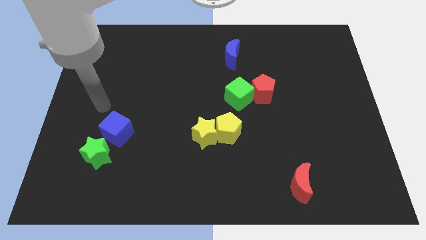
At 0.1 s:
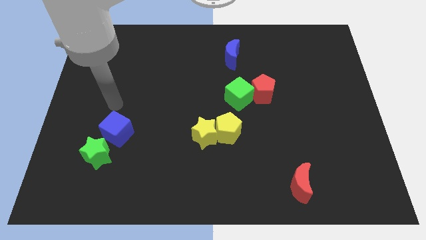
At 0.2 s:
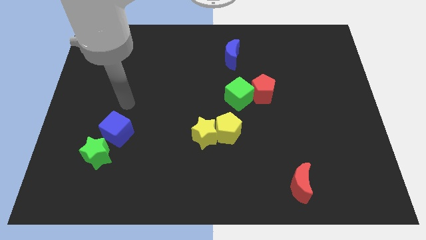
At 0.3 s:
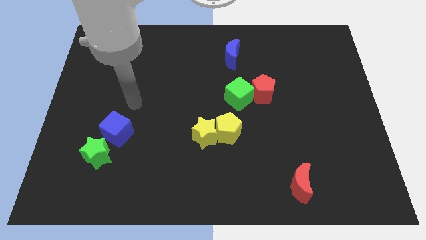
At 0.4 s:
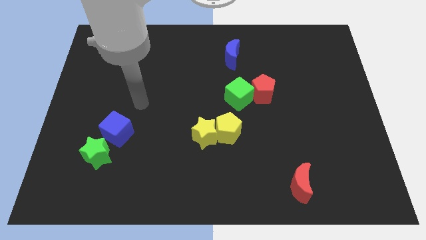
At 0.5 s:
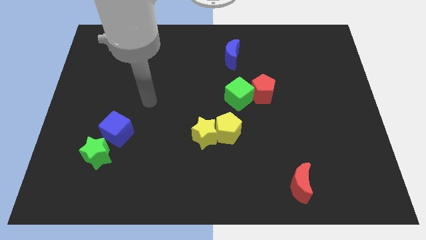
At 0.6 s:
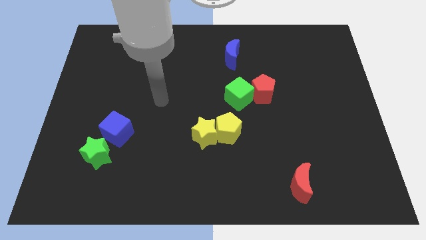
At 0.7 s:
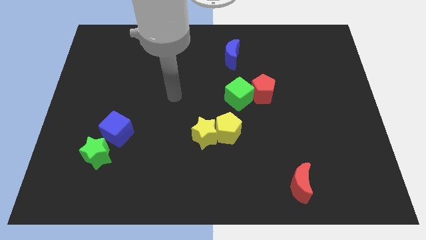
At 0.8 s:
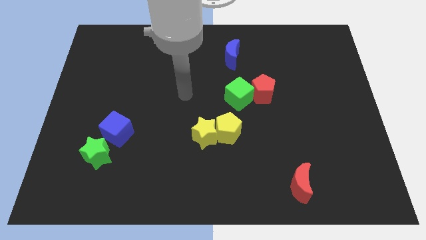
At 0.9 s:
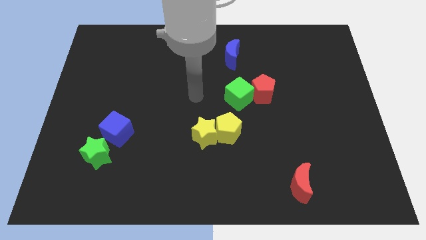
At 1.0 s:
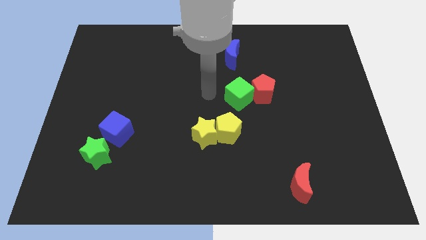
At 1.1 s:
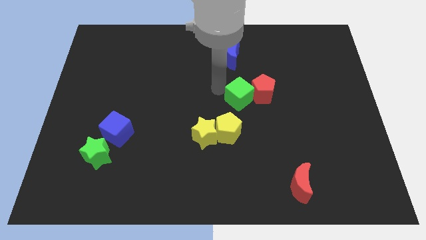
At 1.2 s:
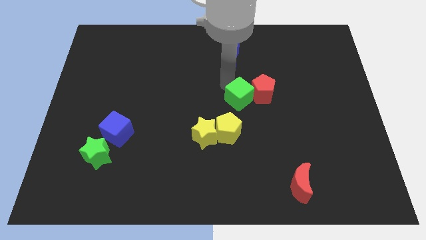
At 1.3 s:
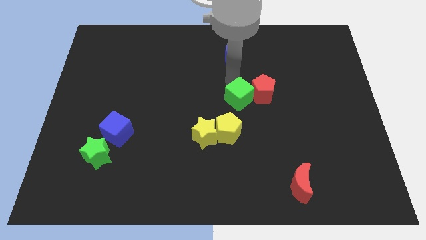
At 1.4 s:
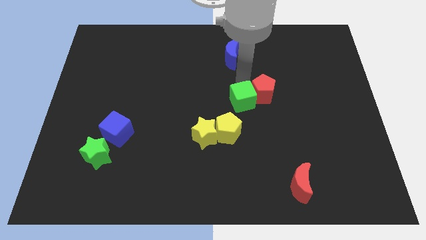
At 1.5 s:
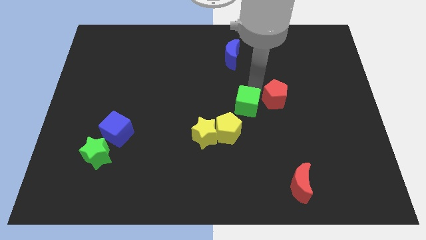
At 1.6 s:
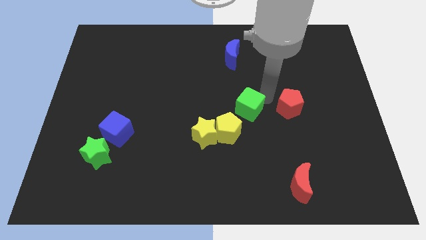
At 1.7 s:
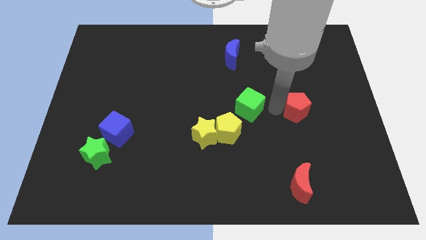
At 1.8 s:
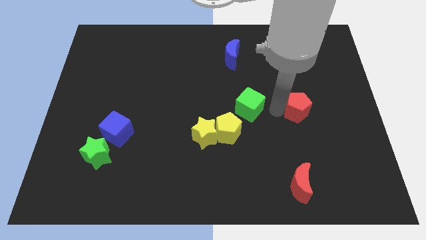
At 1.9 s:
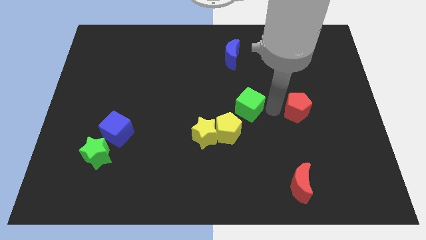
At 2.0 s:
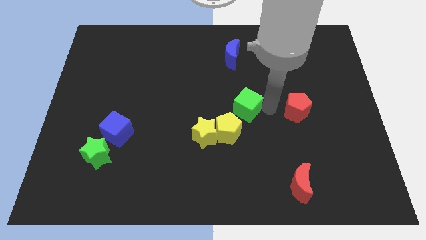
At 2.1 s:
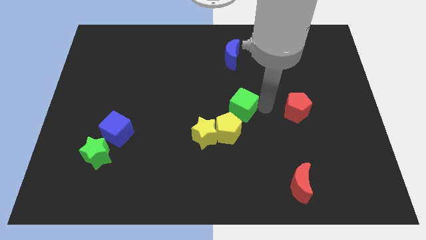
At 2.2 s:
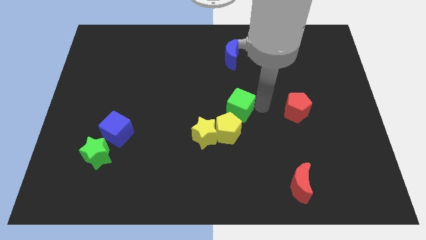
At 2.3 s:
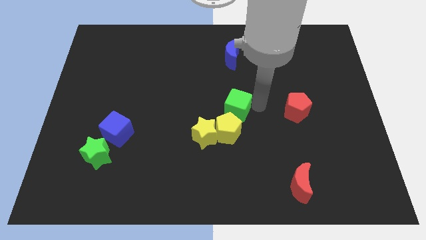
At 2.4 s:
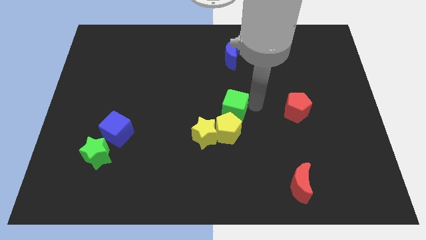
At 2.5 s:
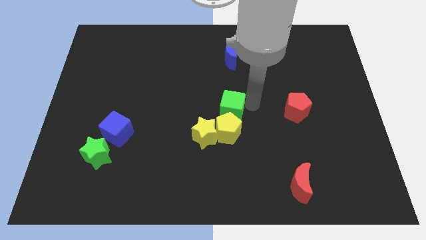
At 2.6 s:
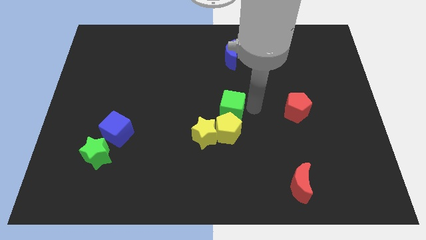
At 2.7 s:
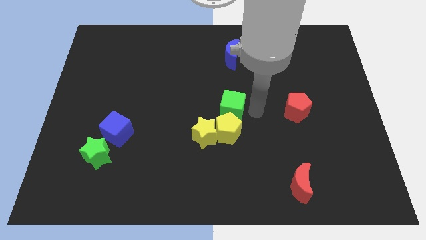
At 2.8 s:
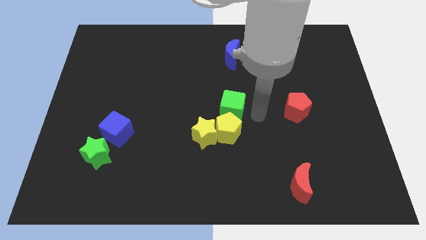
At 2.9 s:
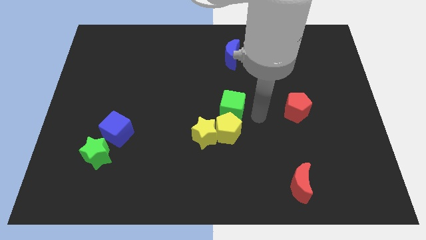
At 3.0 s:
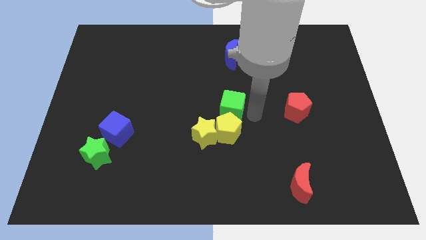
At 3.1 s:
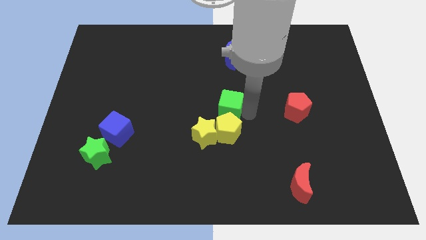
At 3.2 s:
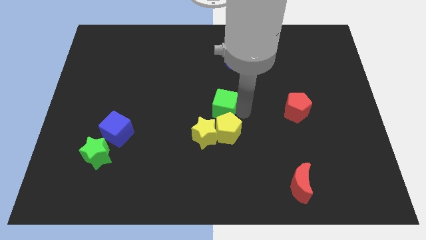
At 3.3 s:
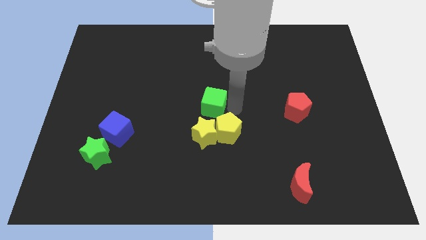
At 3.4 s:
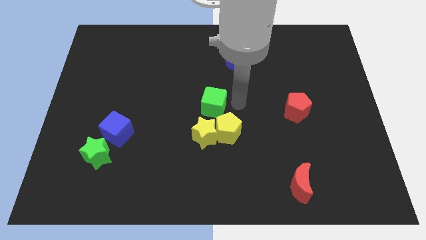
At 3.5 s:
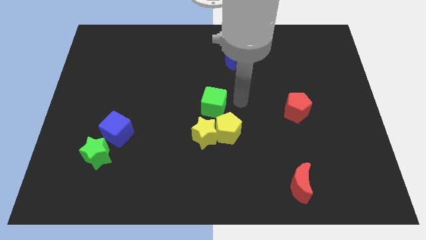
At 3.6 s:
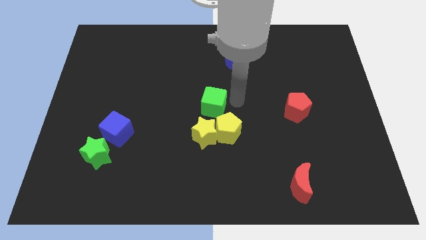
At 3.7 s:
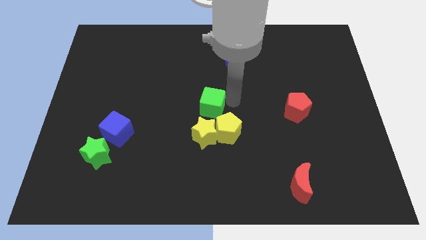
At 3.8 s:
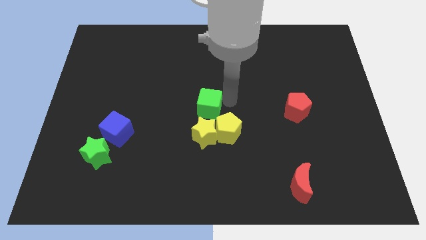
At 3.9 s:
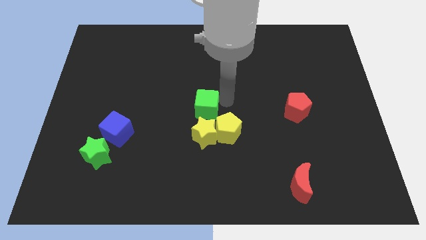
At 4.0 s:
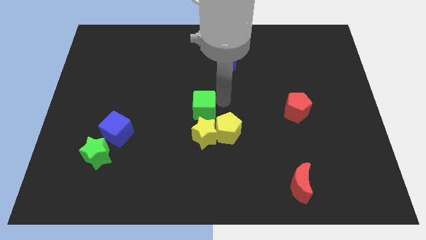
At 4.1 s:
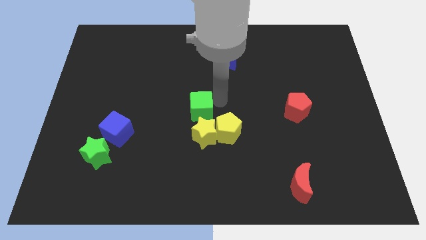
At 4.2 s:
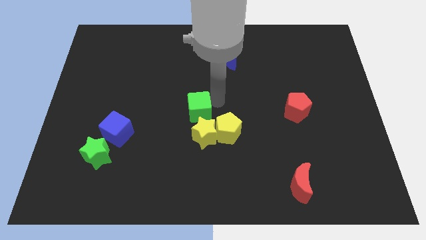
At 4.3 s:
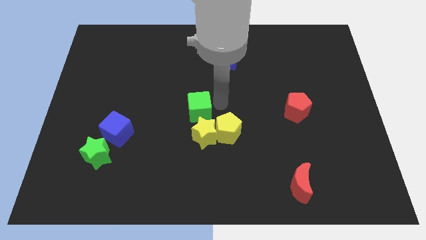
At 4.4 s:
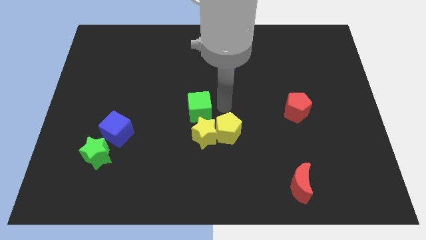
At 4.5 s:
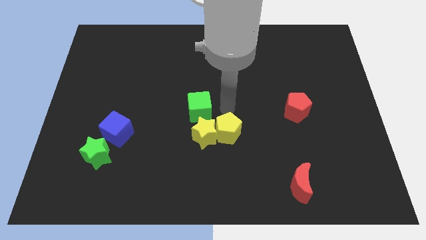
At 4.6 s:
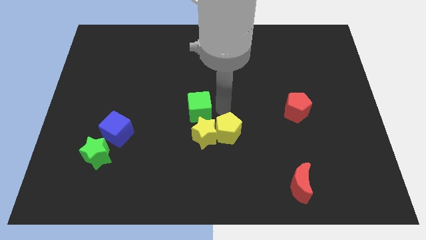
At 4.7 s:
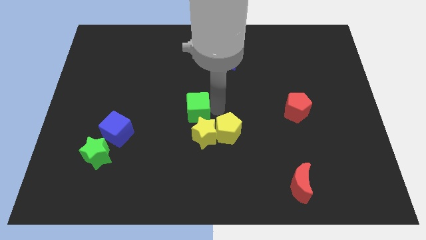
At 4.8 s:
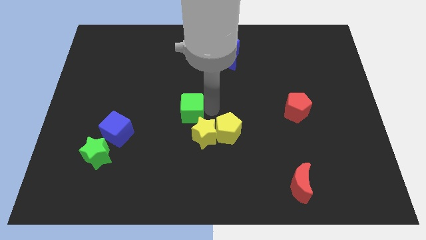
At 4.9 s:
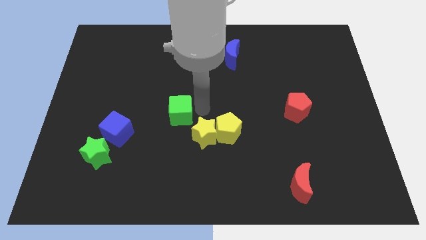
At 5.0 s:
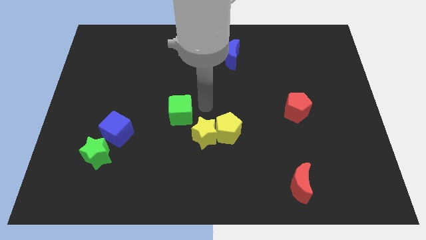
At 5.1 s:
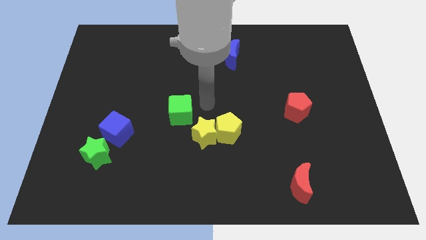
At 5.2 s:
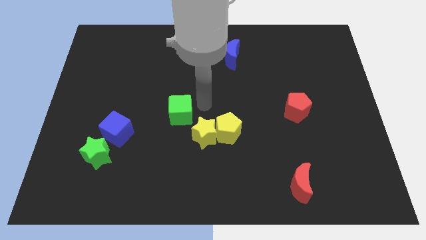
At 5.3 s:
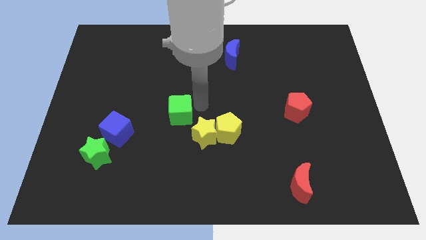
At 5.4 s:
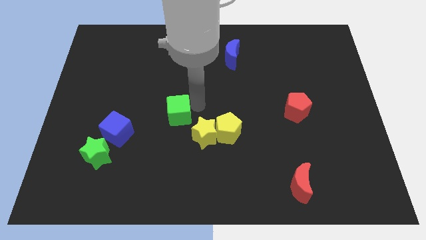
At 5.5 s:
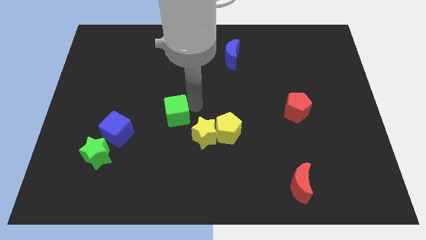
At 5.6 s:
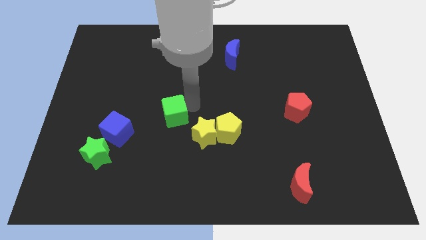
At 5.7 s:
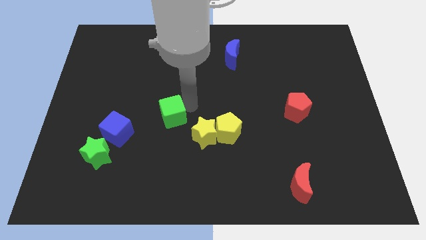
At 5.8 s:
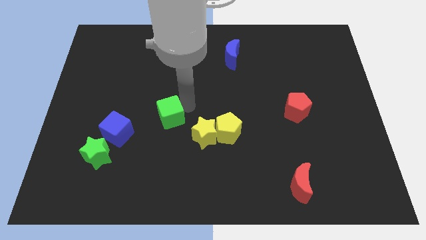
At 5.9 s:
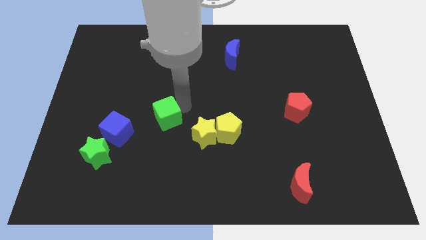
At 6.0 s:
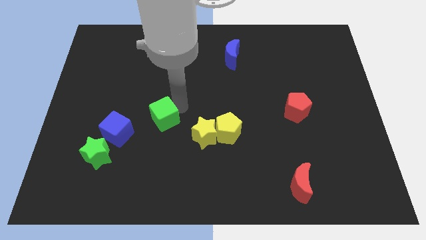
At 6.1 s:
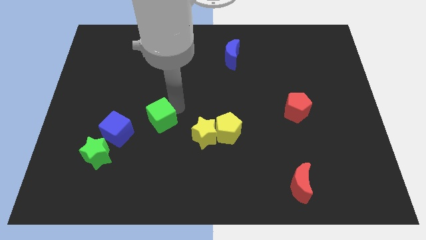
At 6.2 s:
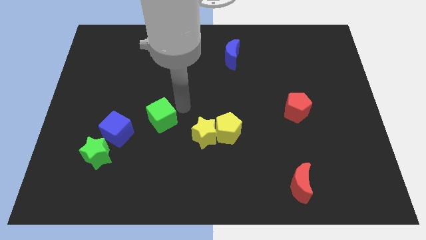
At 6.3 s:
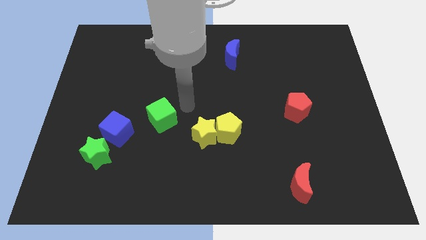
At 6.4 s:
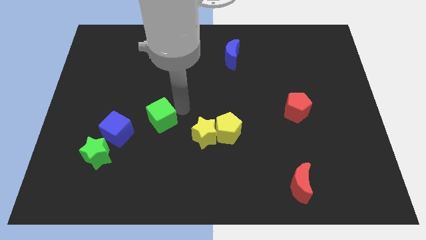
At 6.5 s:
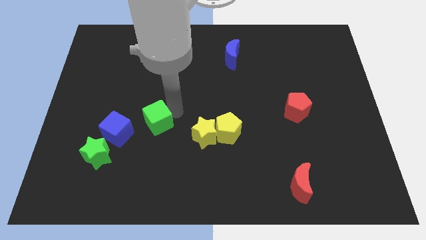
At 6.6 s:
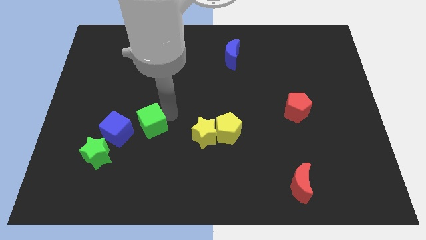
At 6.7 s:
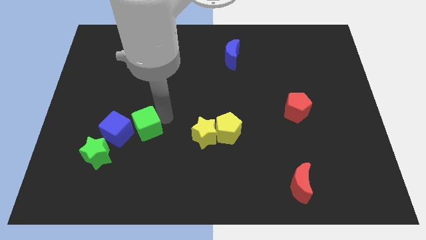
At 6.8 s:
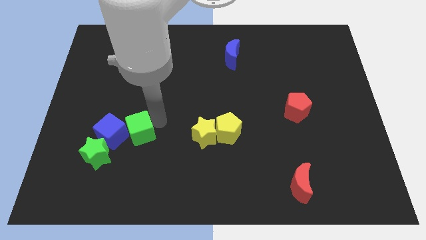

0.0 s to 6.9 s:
slide the green cube next to the blue cube
